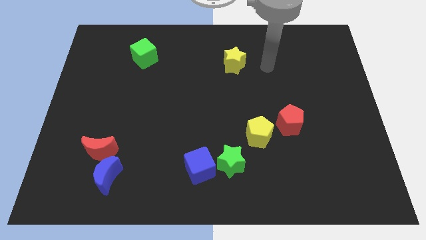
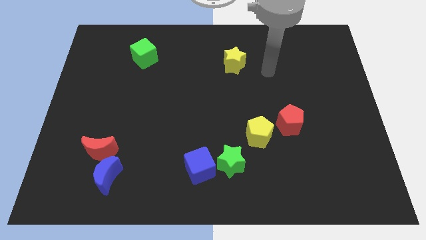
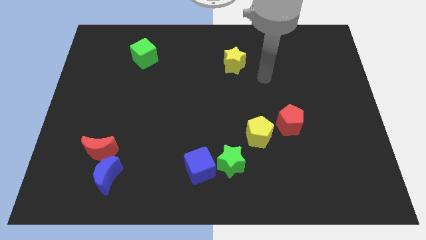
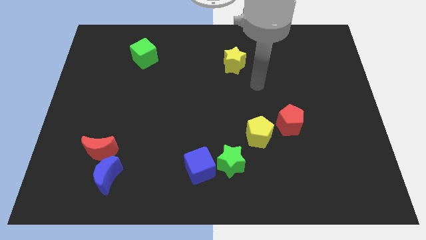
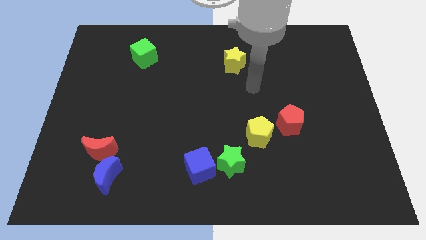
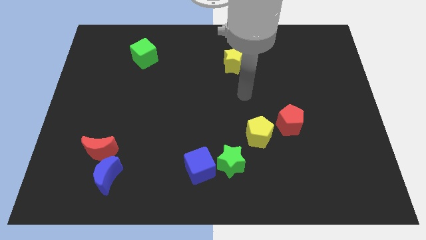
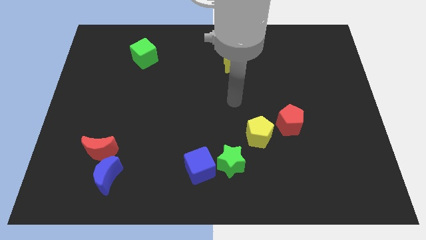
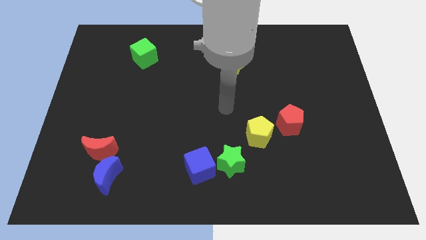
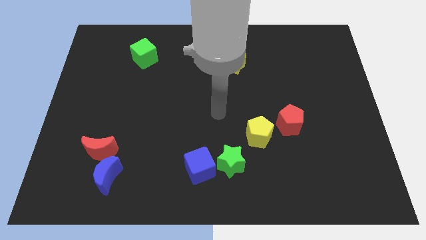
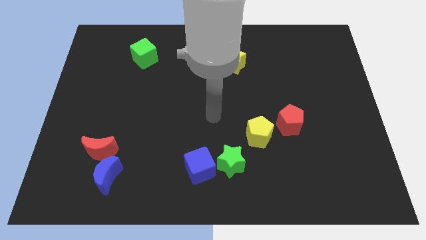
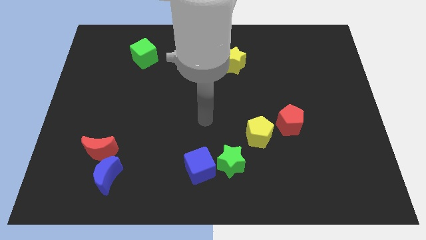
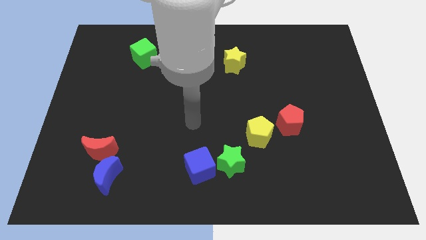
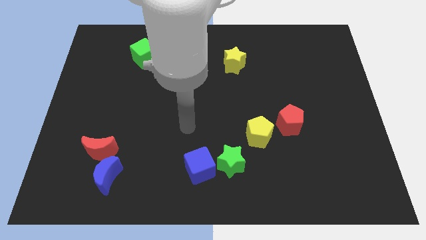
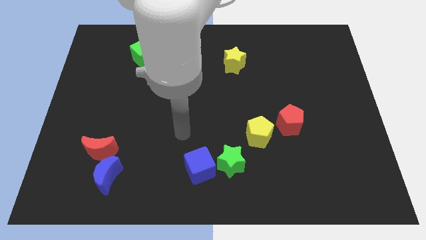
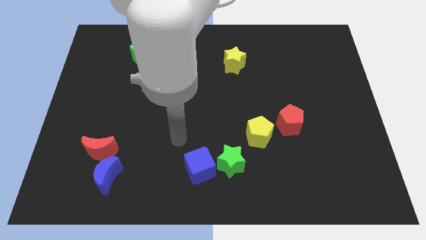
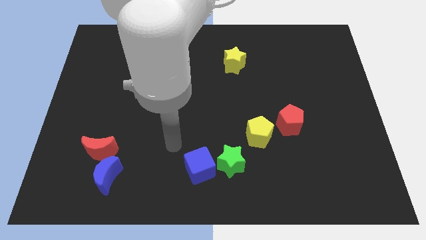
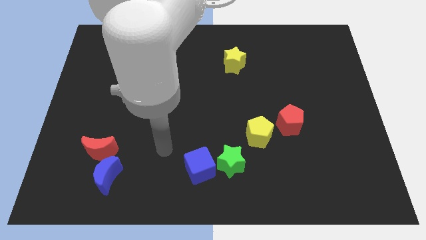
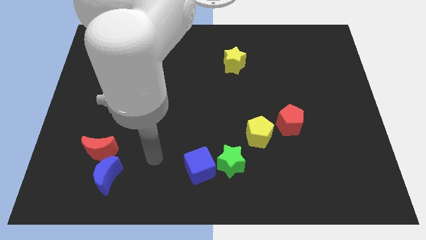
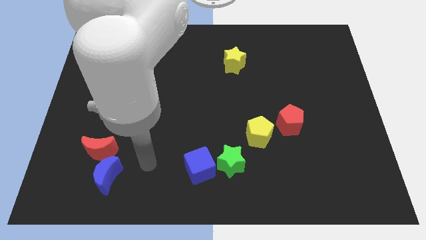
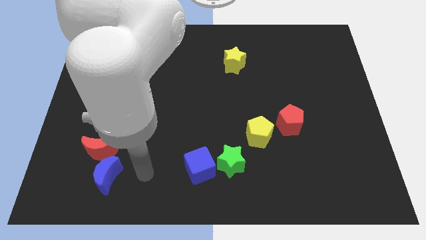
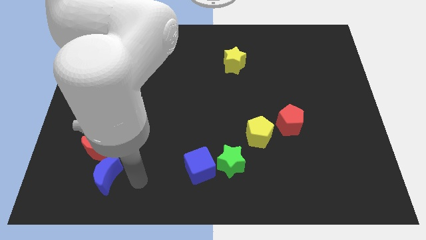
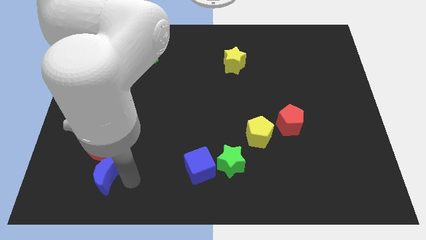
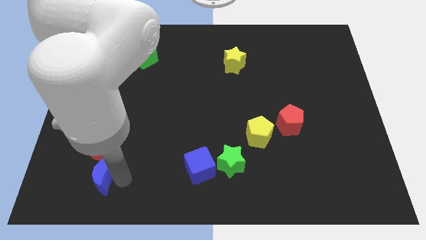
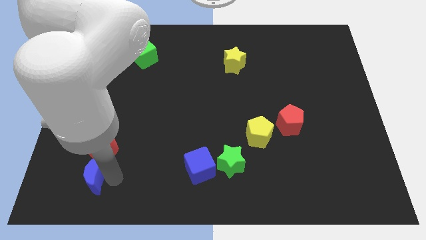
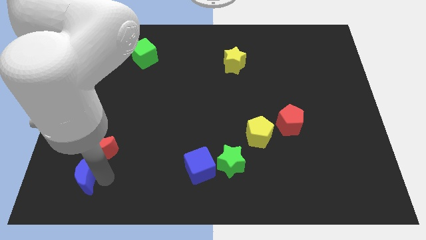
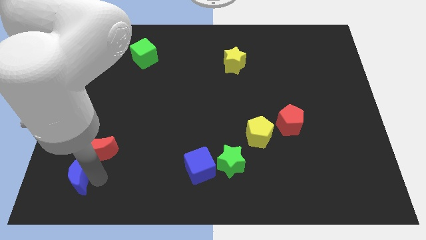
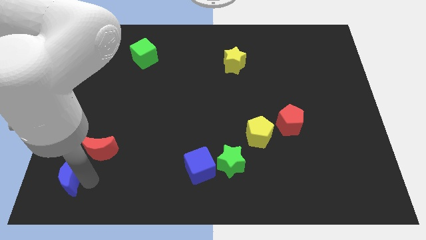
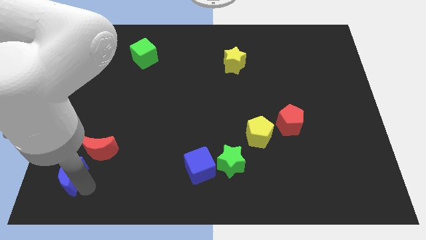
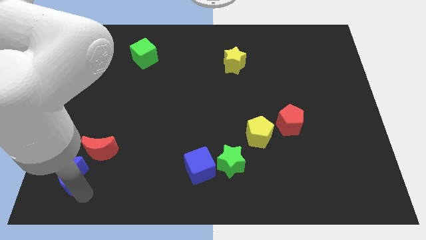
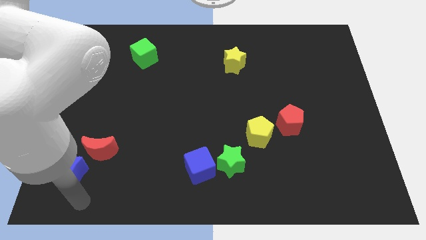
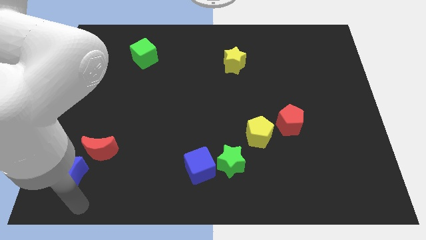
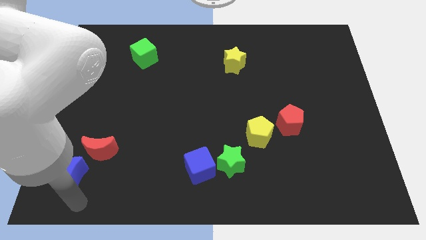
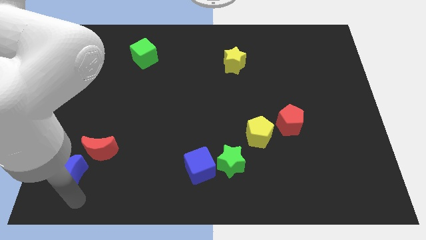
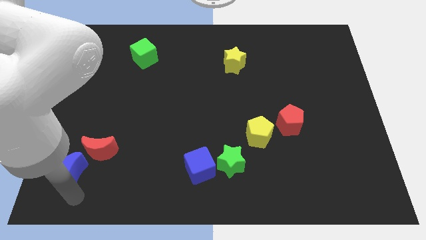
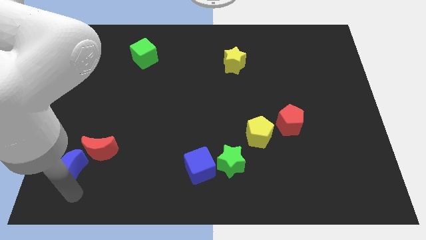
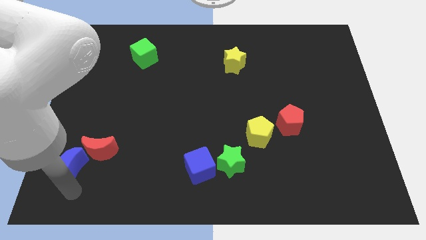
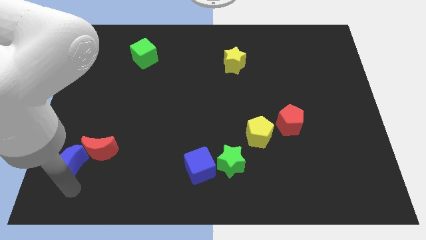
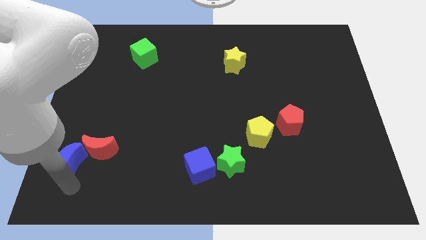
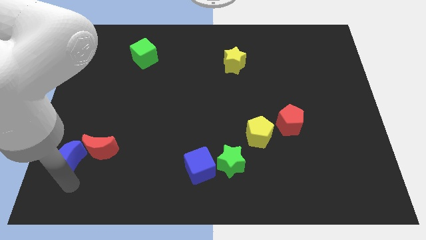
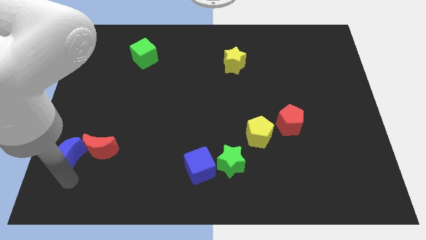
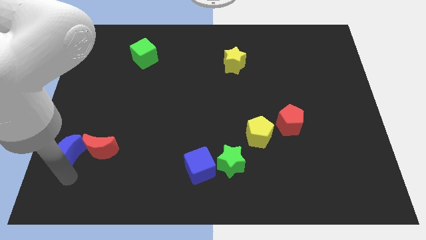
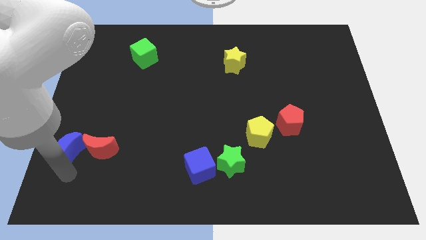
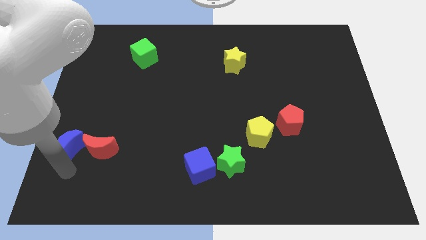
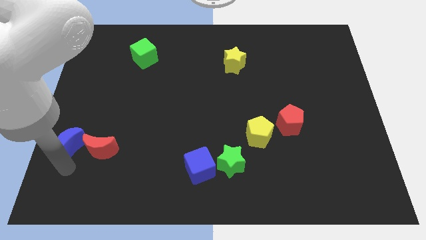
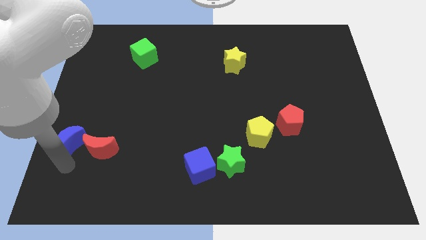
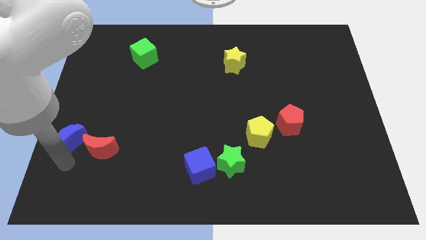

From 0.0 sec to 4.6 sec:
slide the blue moon to the left side of the board

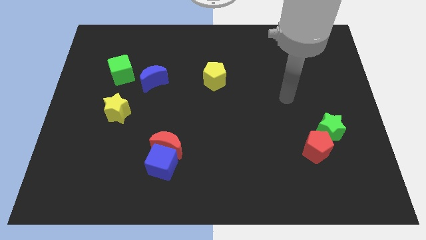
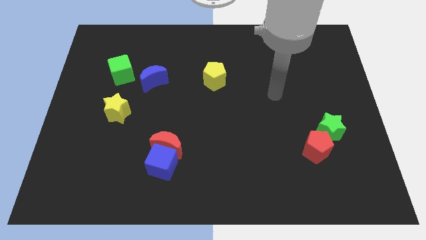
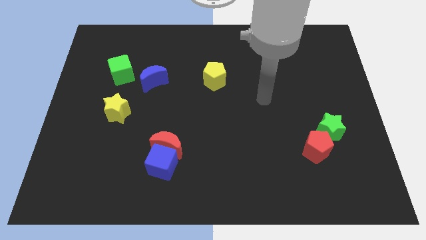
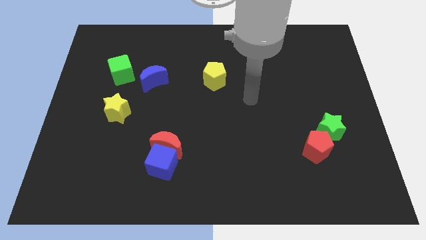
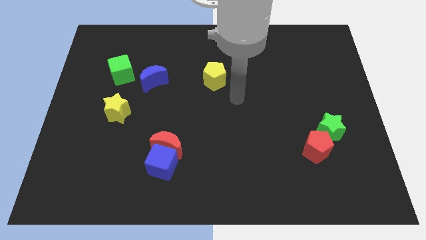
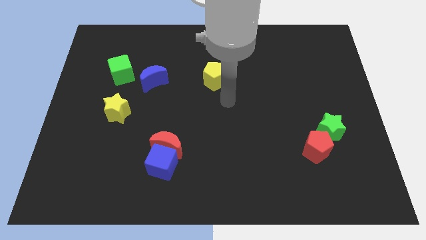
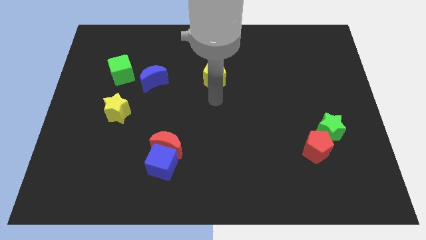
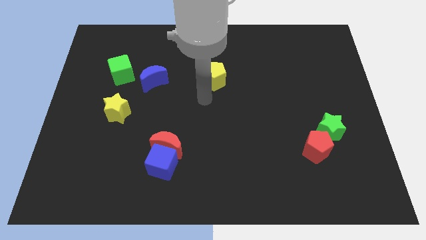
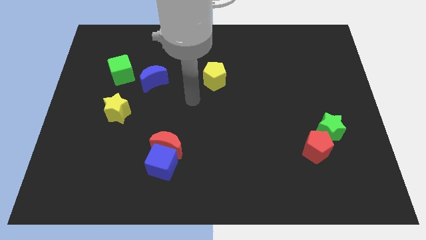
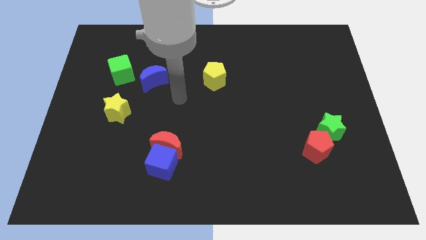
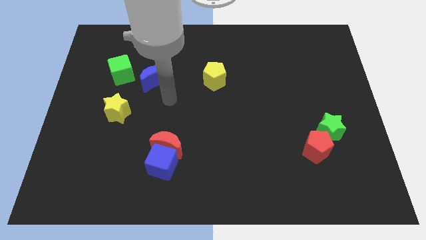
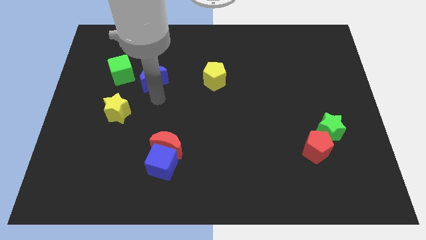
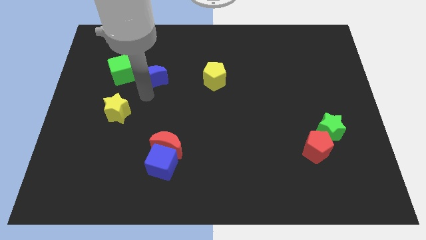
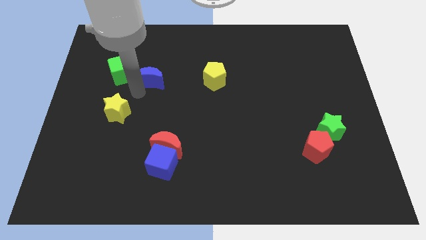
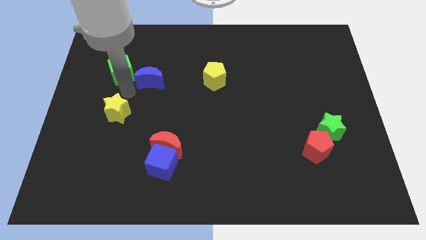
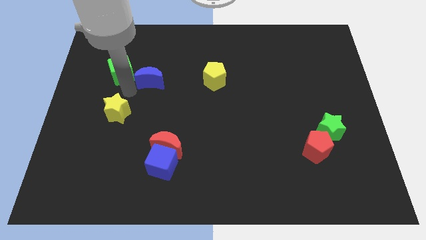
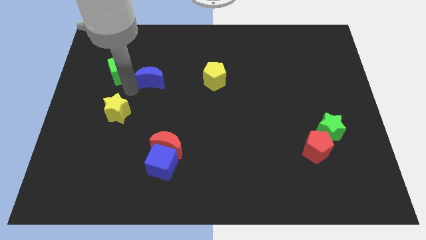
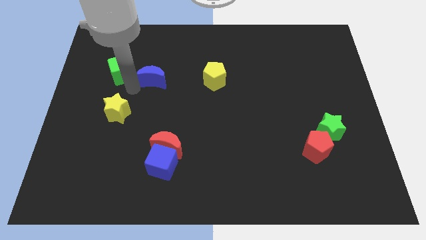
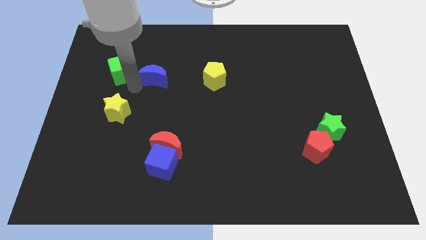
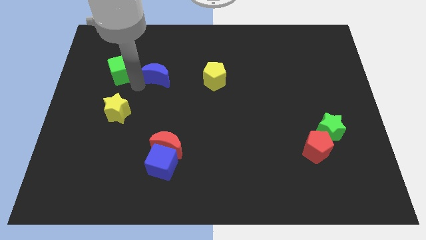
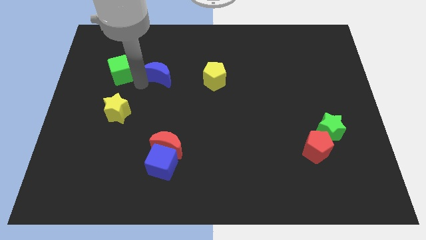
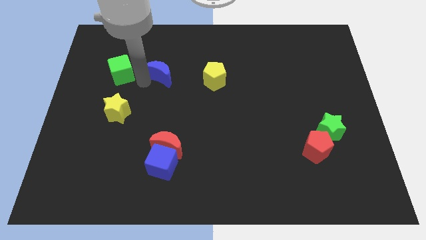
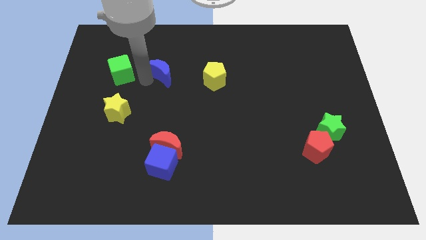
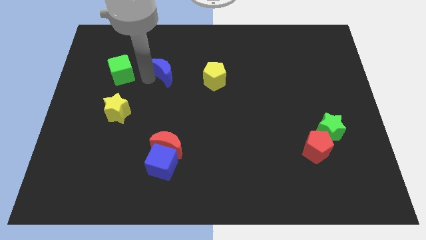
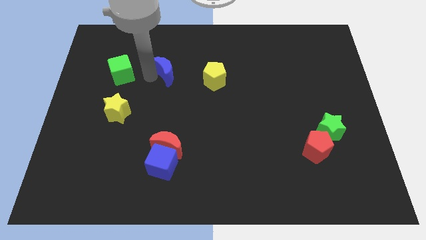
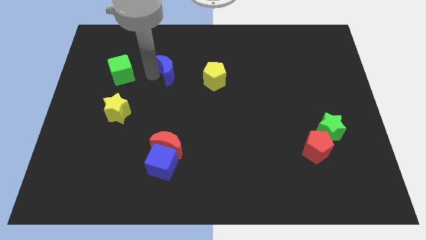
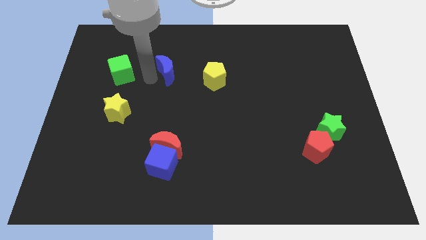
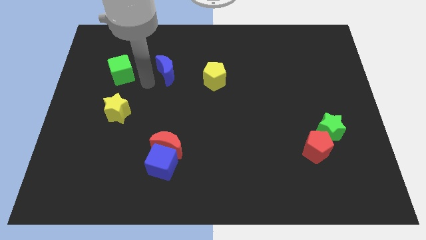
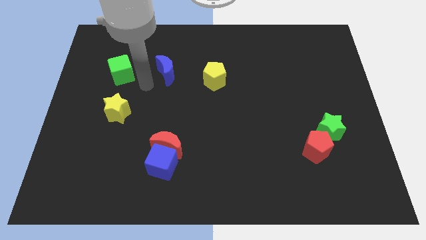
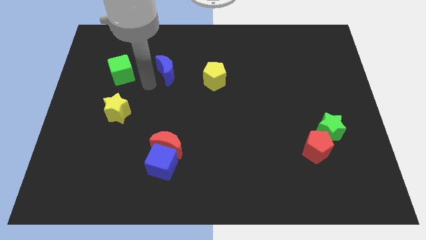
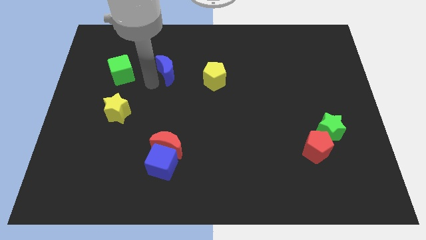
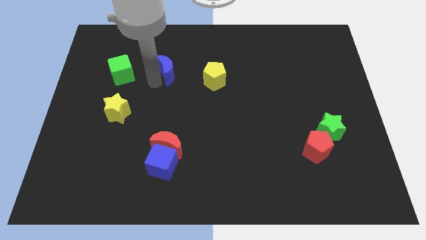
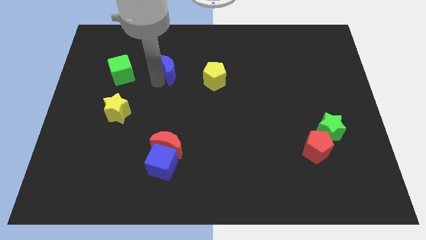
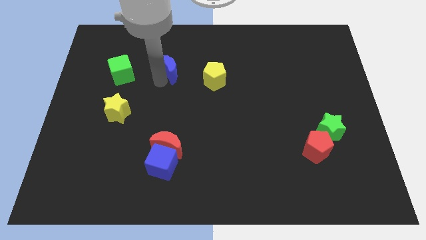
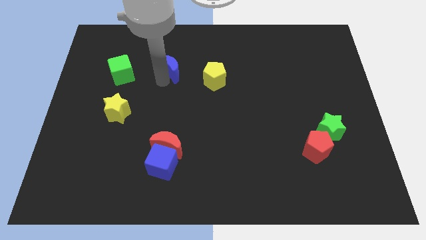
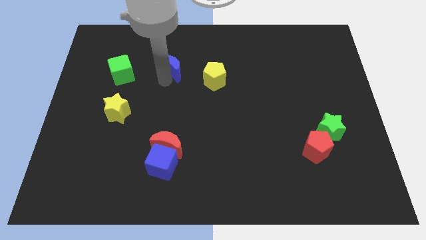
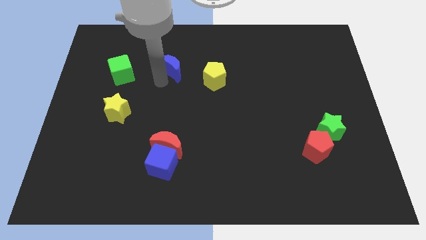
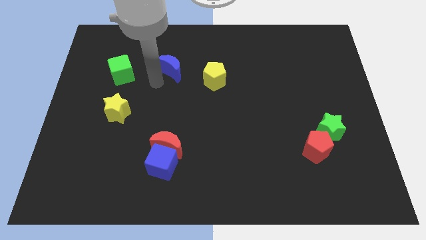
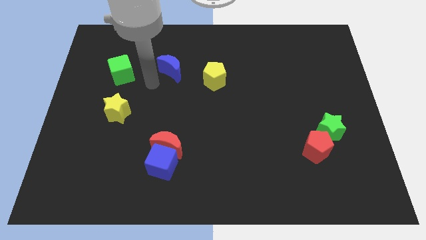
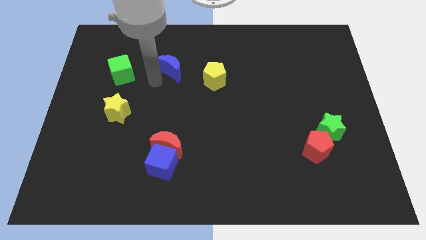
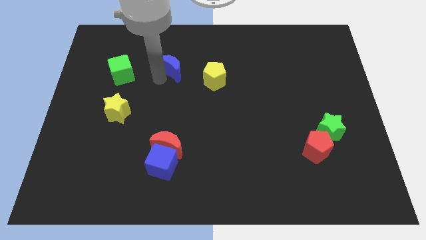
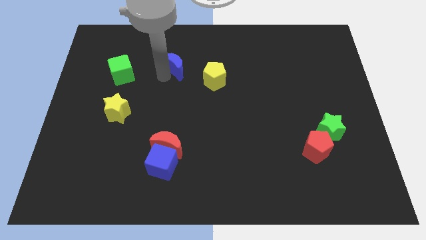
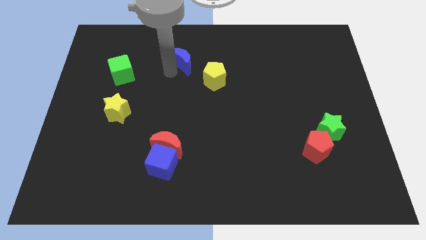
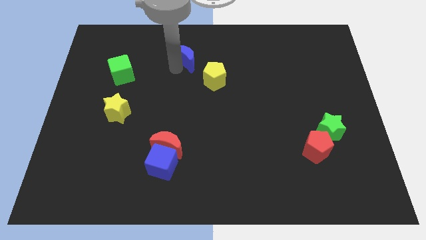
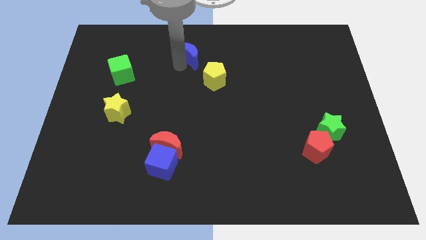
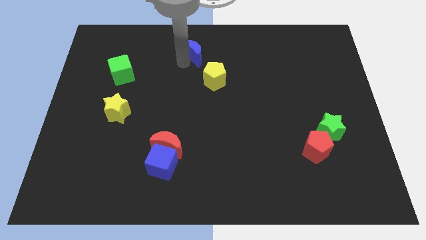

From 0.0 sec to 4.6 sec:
move the blue moon to the towards your base
